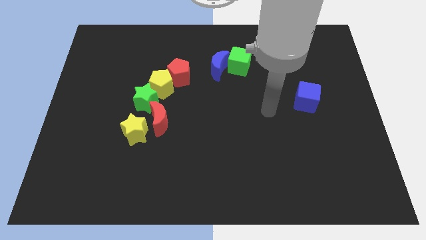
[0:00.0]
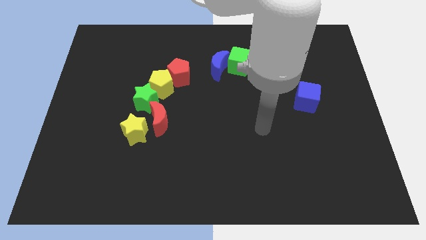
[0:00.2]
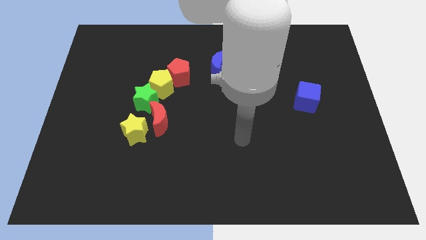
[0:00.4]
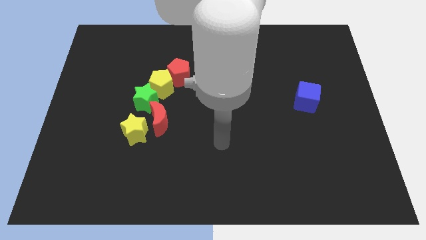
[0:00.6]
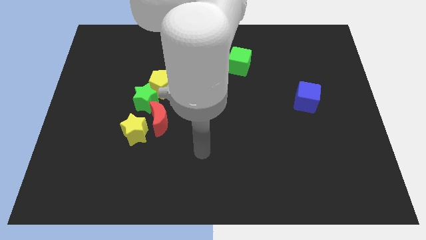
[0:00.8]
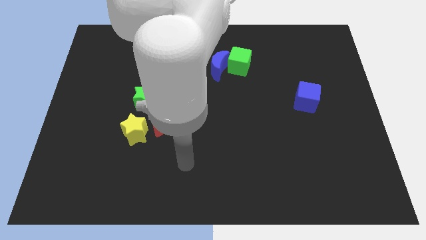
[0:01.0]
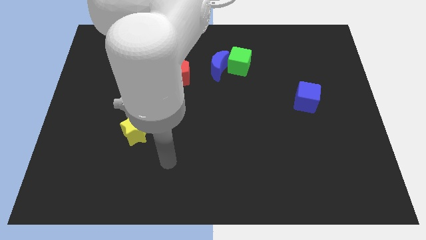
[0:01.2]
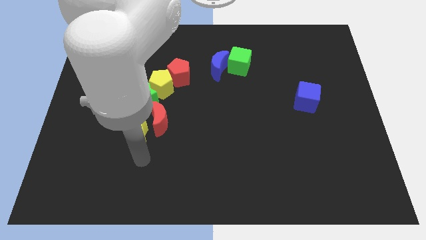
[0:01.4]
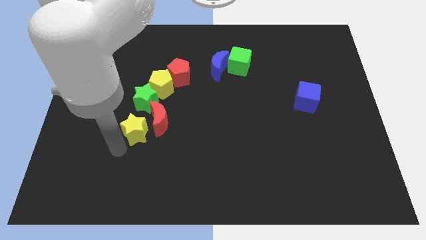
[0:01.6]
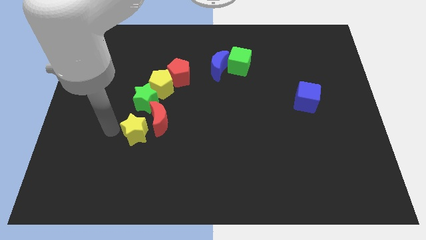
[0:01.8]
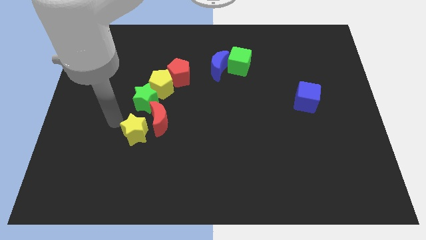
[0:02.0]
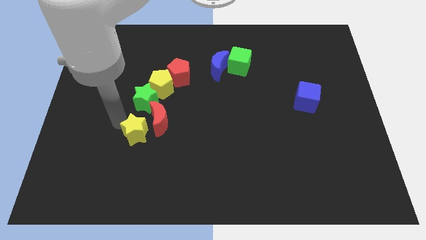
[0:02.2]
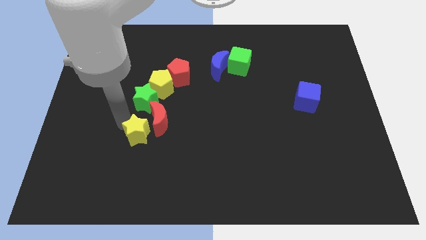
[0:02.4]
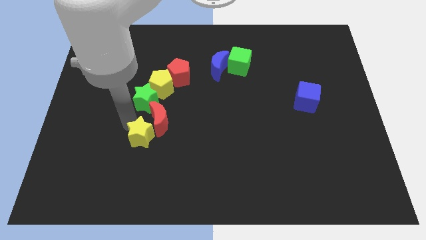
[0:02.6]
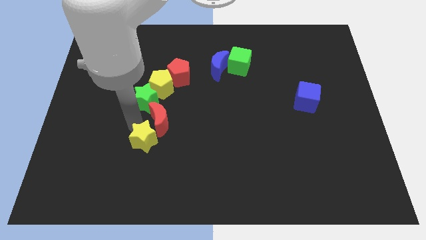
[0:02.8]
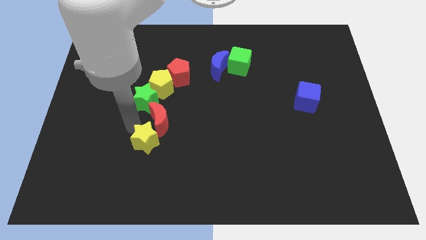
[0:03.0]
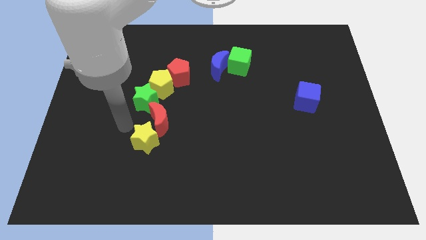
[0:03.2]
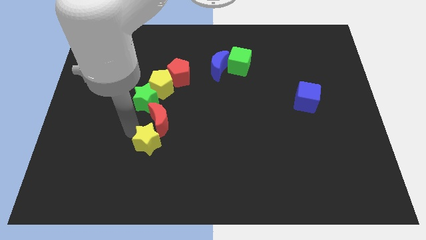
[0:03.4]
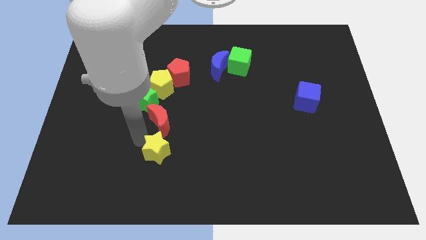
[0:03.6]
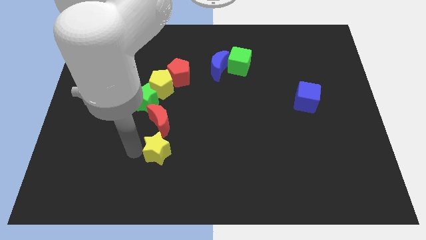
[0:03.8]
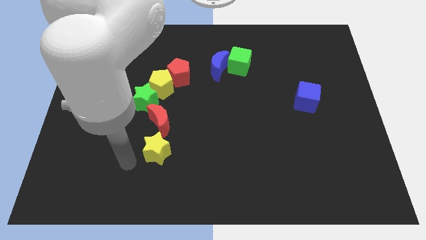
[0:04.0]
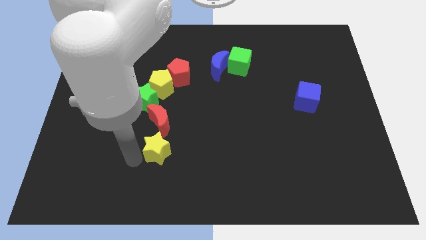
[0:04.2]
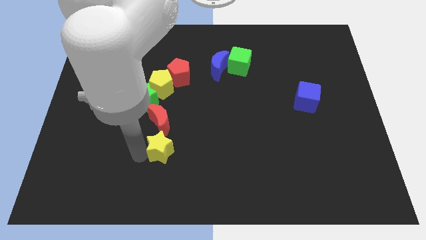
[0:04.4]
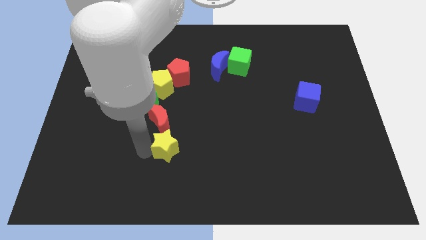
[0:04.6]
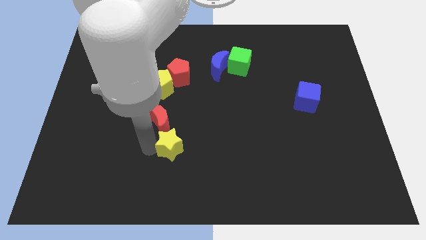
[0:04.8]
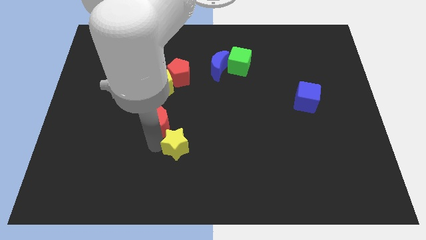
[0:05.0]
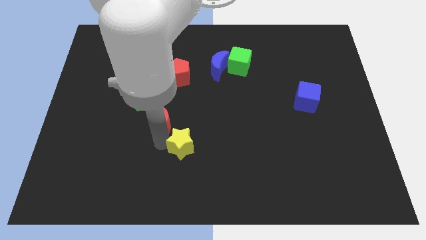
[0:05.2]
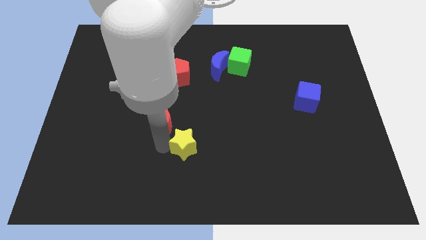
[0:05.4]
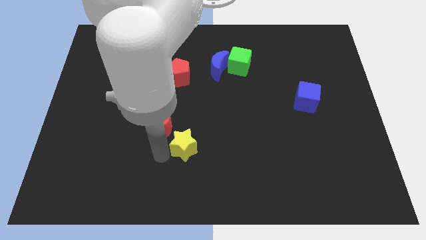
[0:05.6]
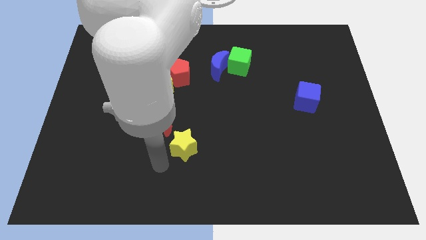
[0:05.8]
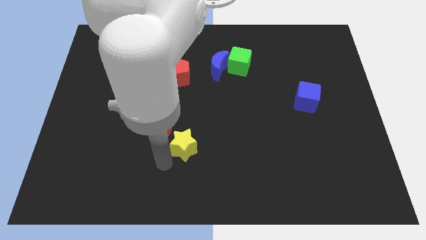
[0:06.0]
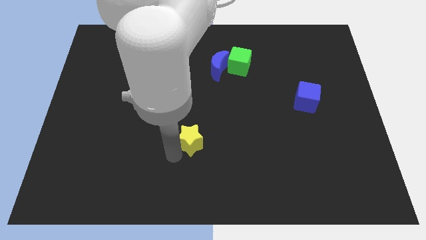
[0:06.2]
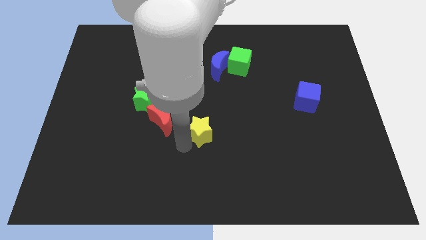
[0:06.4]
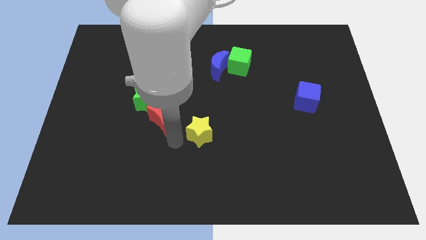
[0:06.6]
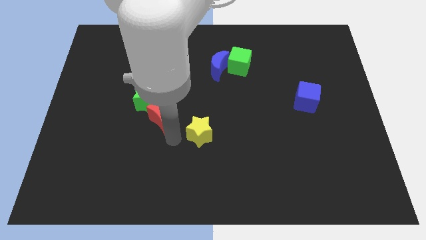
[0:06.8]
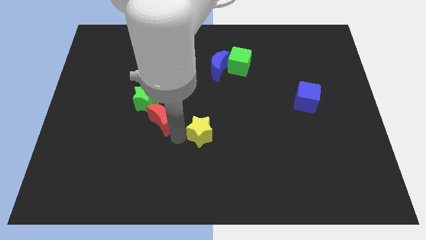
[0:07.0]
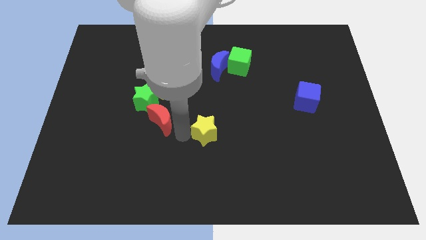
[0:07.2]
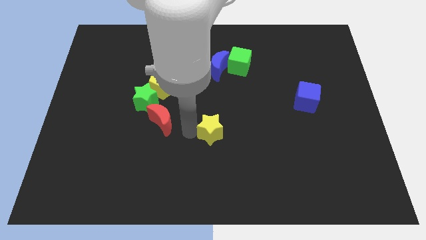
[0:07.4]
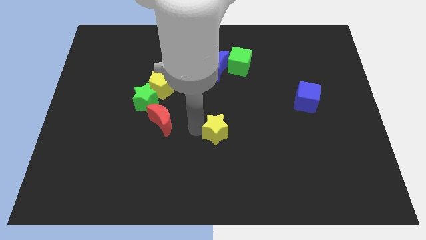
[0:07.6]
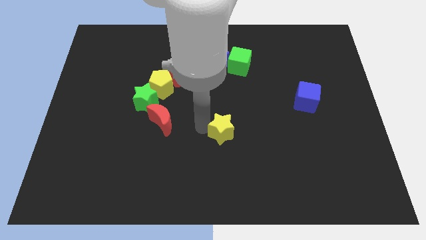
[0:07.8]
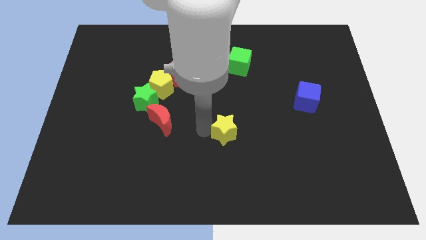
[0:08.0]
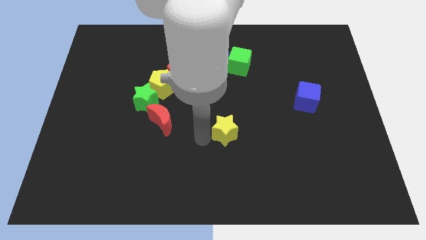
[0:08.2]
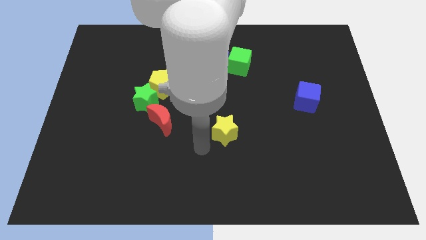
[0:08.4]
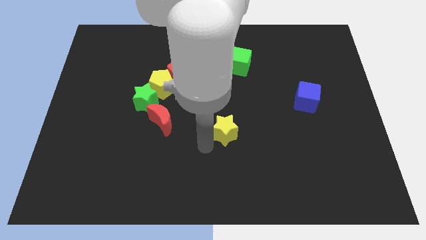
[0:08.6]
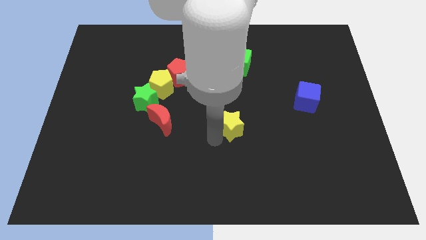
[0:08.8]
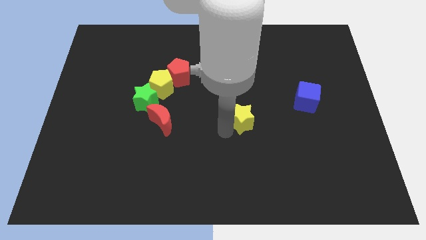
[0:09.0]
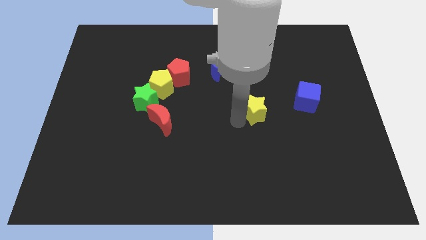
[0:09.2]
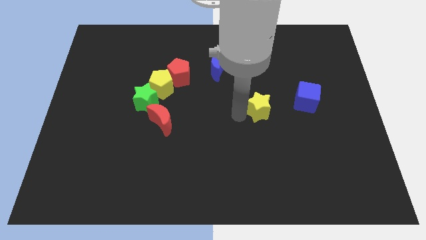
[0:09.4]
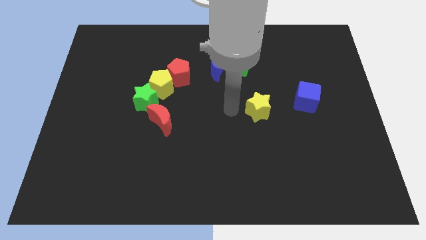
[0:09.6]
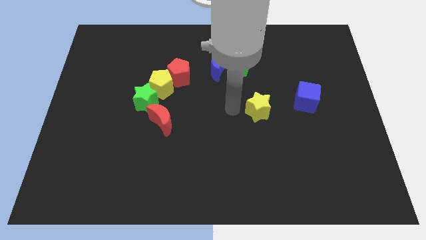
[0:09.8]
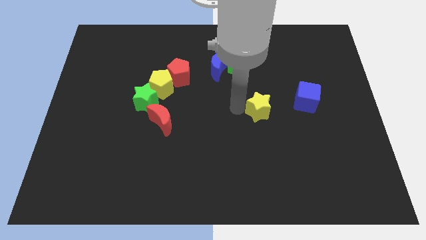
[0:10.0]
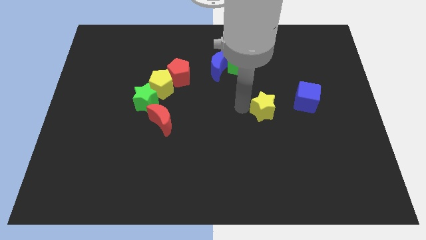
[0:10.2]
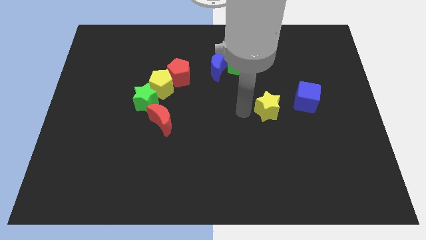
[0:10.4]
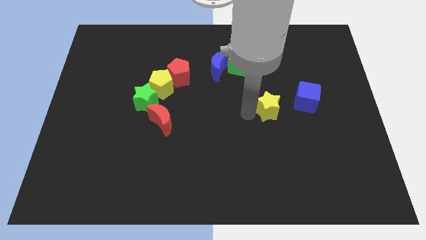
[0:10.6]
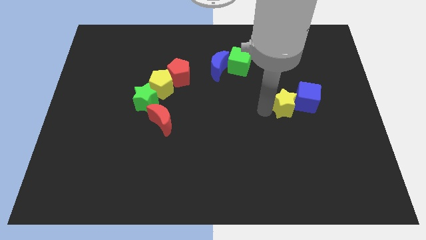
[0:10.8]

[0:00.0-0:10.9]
put the yellow star close to the blue cube

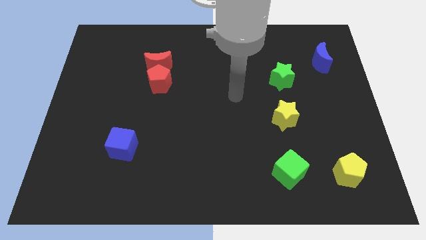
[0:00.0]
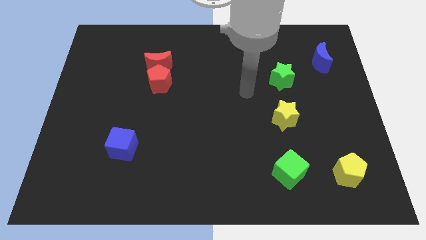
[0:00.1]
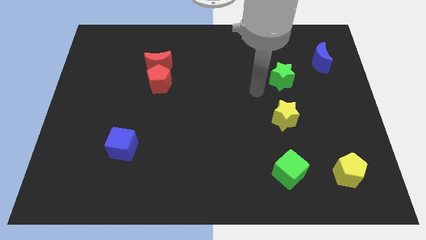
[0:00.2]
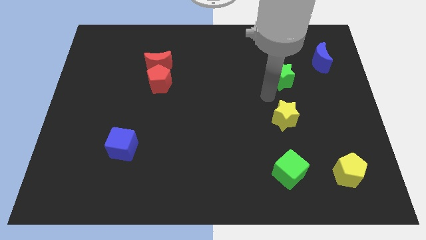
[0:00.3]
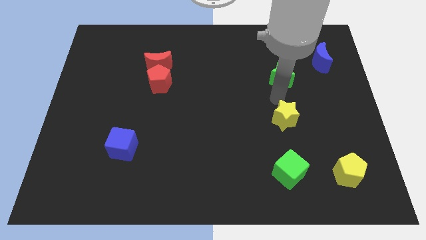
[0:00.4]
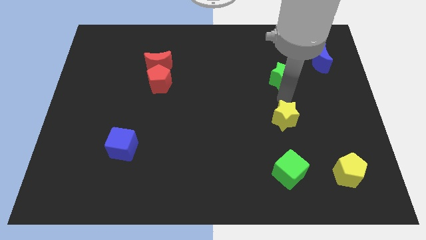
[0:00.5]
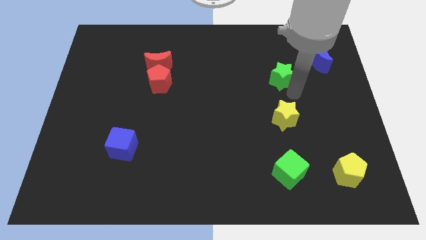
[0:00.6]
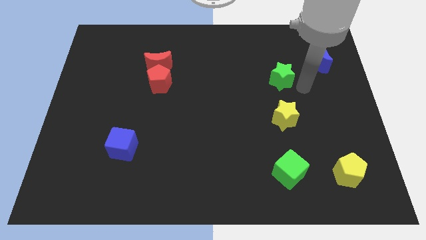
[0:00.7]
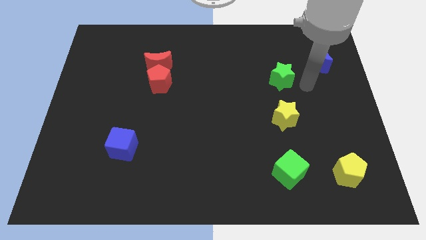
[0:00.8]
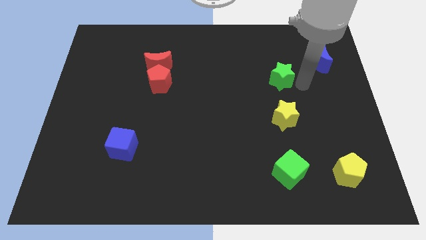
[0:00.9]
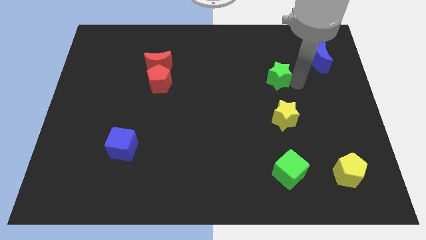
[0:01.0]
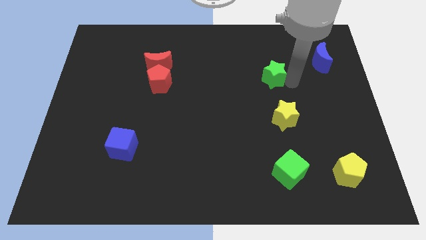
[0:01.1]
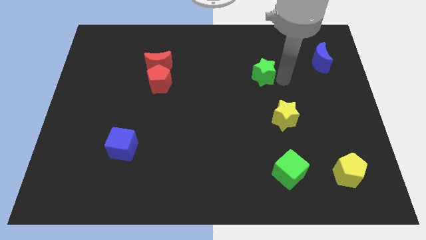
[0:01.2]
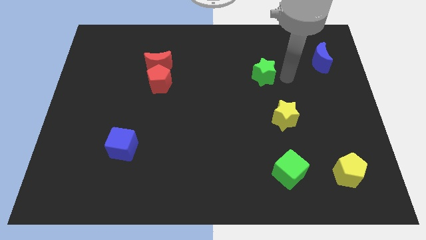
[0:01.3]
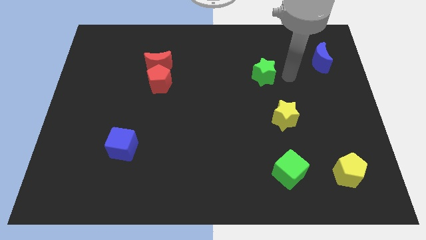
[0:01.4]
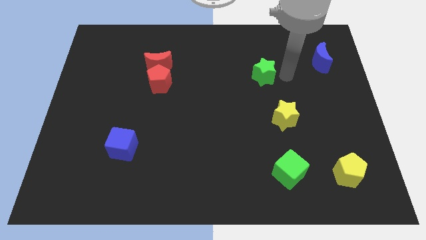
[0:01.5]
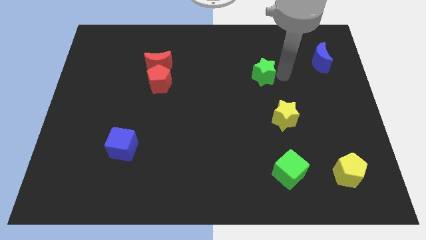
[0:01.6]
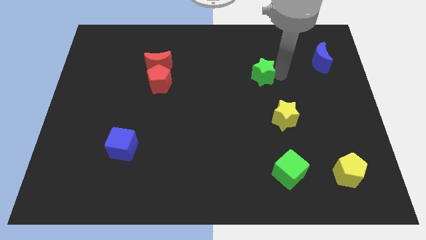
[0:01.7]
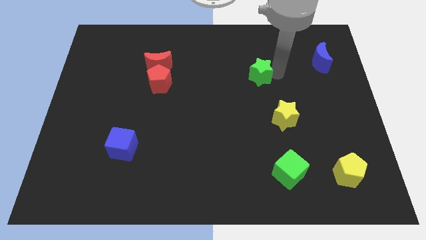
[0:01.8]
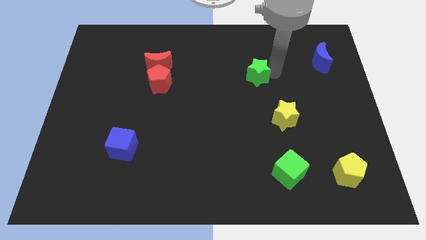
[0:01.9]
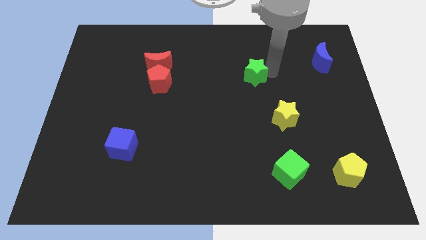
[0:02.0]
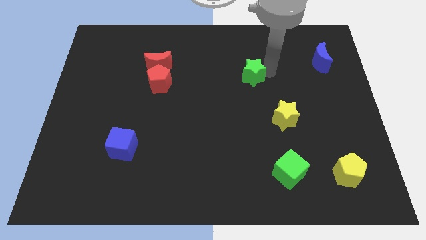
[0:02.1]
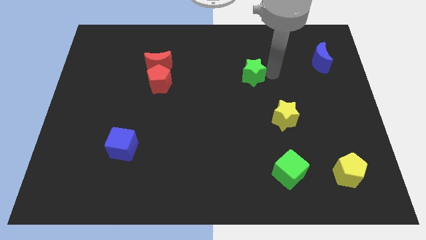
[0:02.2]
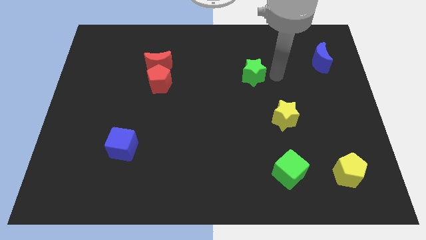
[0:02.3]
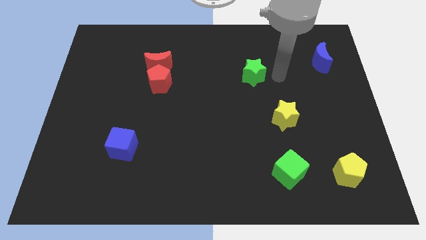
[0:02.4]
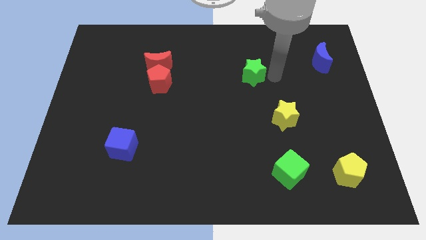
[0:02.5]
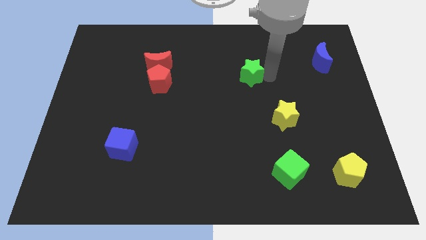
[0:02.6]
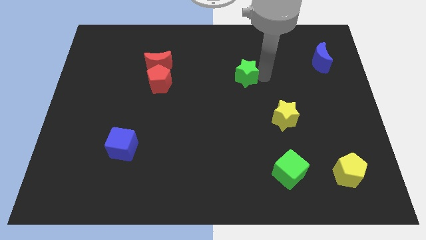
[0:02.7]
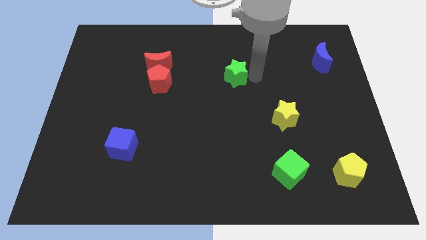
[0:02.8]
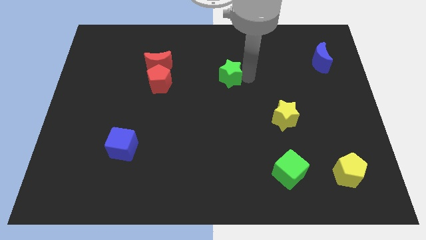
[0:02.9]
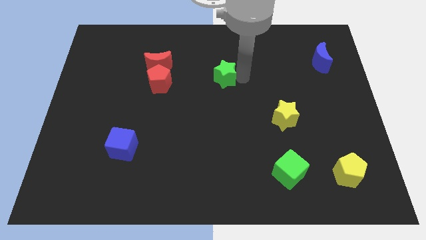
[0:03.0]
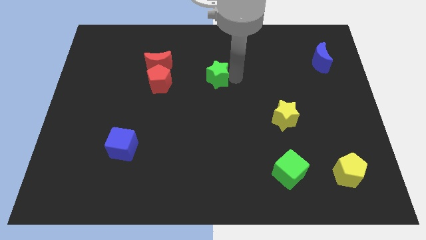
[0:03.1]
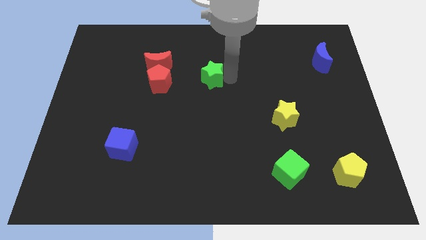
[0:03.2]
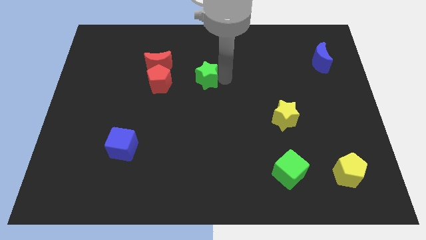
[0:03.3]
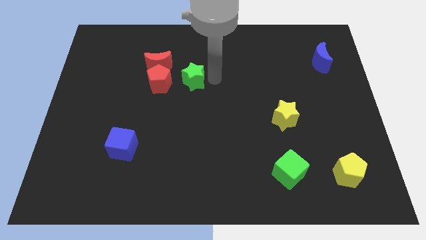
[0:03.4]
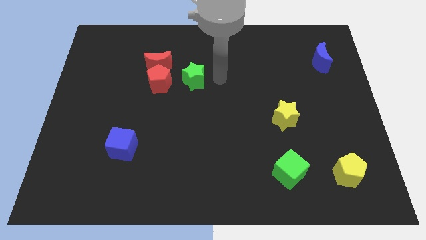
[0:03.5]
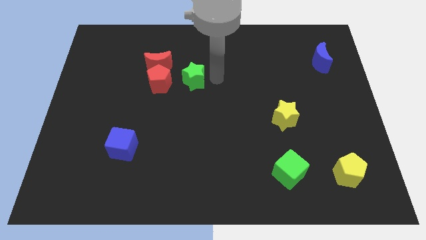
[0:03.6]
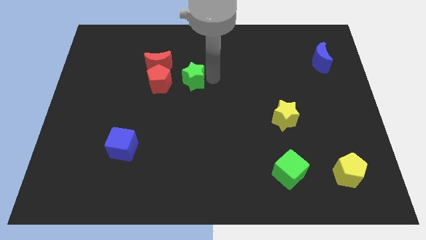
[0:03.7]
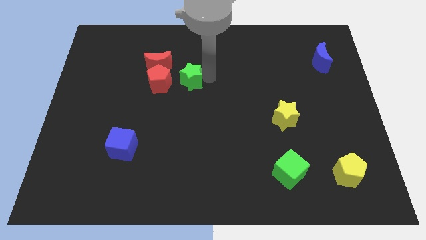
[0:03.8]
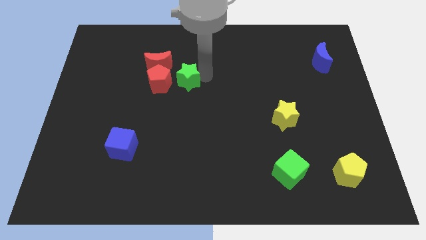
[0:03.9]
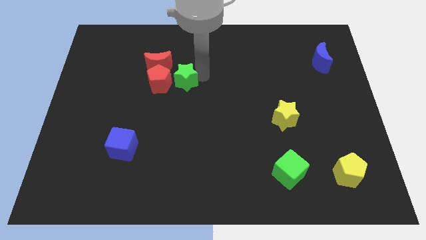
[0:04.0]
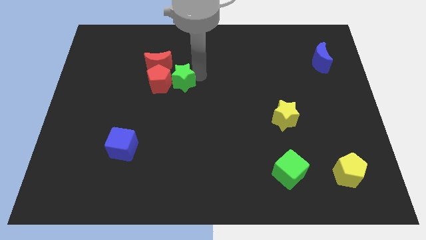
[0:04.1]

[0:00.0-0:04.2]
slide the green star close to the red pentagon
